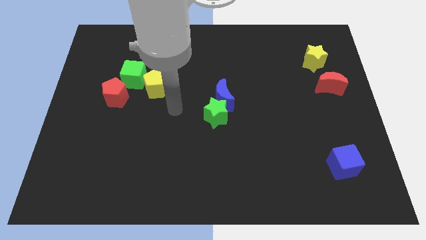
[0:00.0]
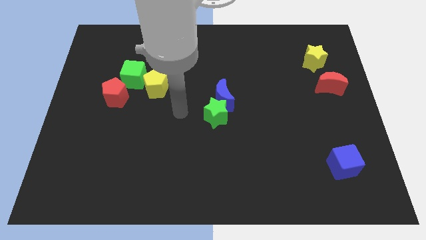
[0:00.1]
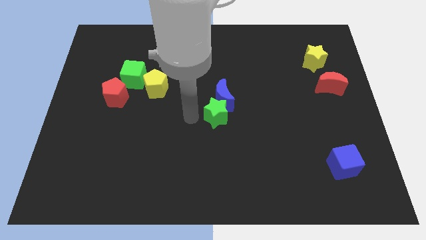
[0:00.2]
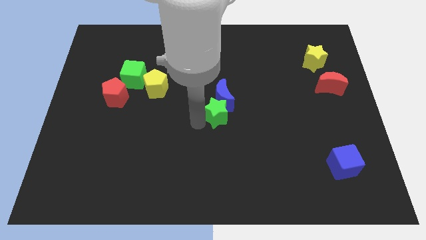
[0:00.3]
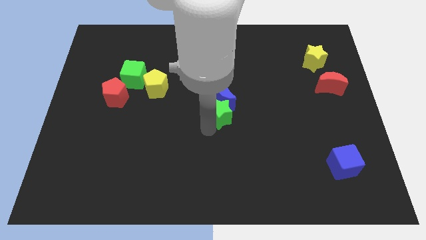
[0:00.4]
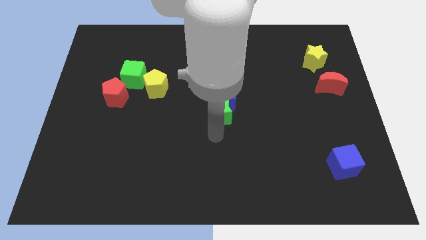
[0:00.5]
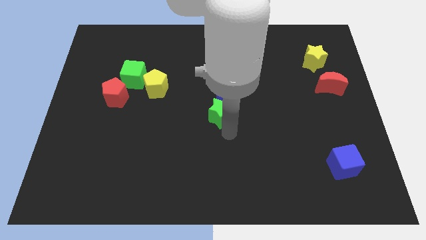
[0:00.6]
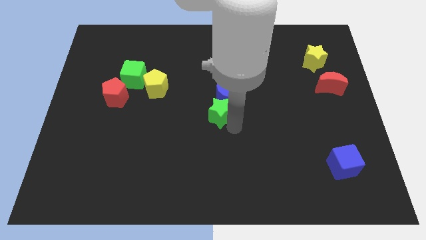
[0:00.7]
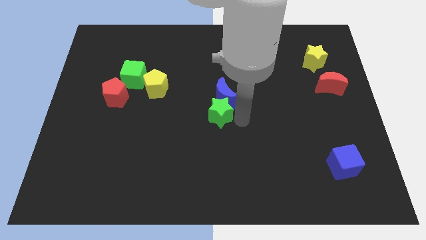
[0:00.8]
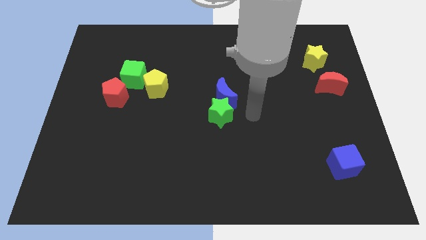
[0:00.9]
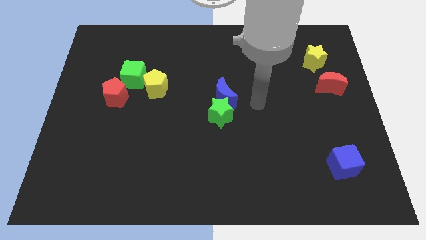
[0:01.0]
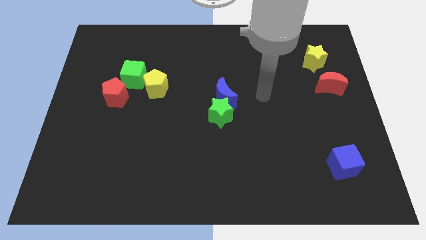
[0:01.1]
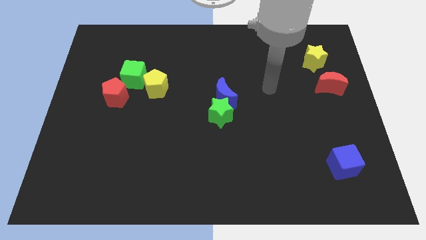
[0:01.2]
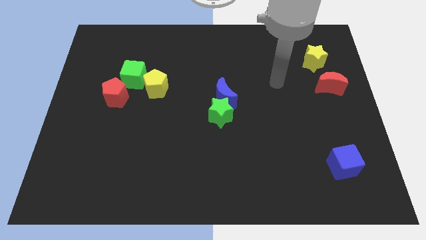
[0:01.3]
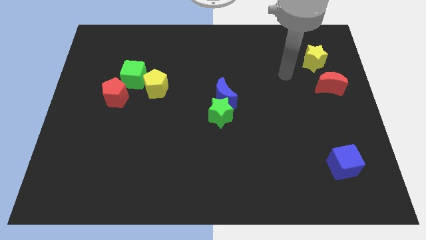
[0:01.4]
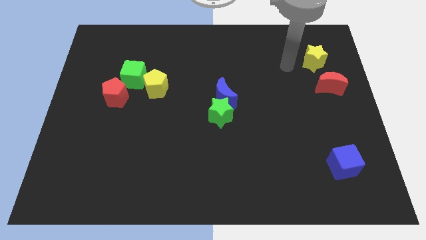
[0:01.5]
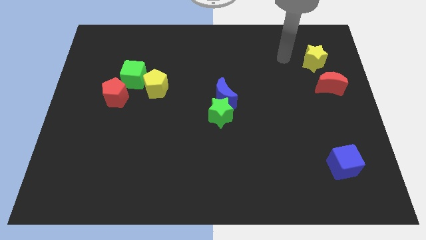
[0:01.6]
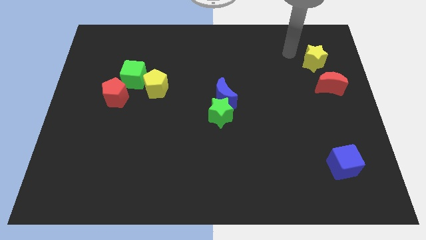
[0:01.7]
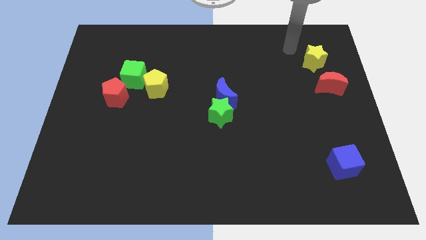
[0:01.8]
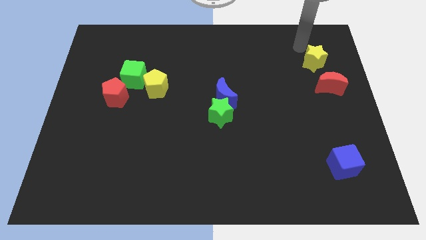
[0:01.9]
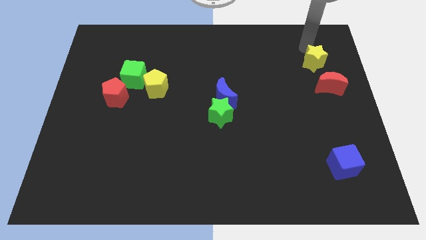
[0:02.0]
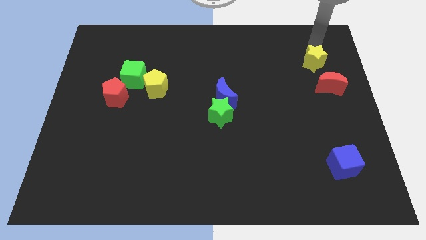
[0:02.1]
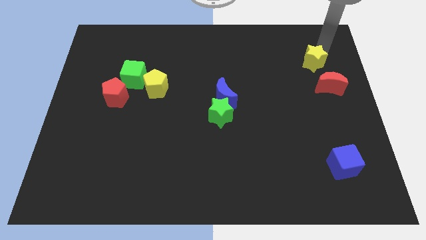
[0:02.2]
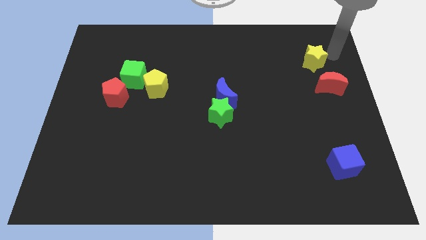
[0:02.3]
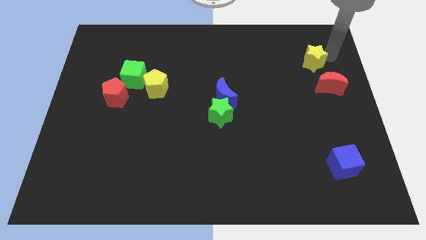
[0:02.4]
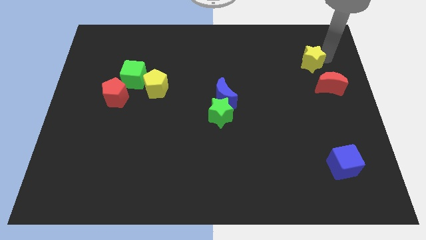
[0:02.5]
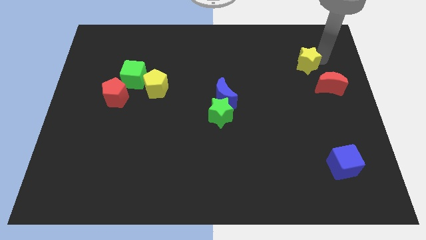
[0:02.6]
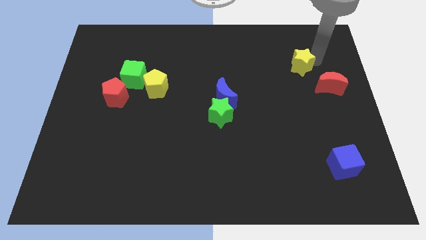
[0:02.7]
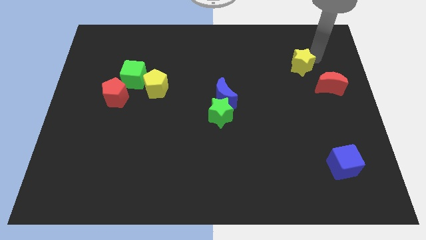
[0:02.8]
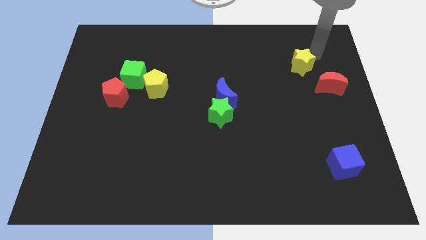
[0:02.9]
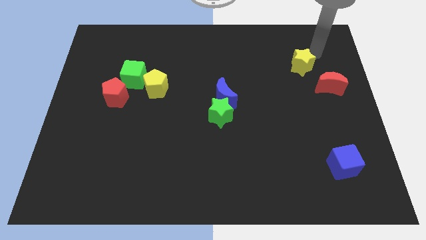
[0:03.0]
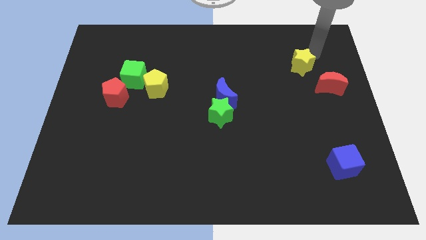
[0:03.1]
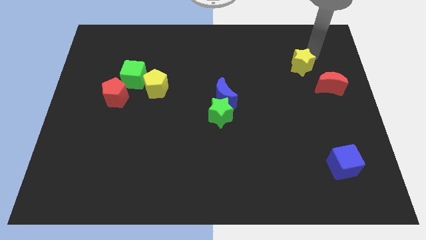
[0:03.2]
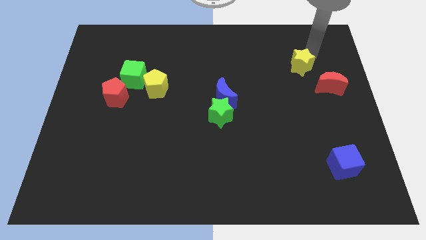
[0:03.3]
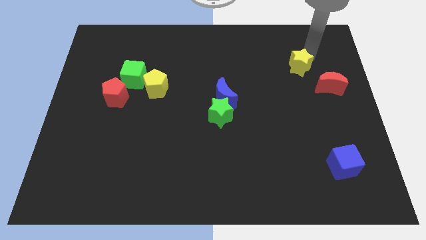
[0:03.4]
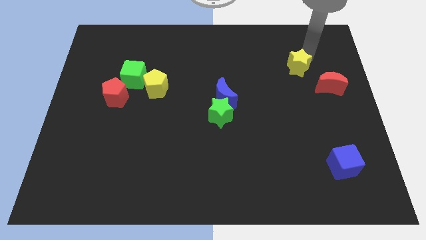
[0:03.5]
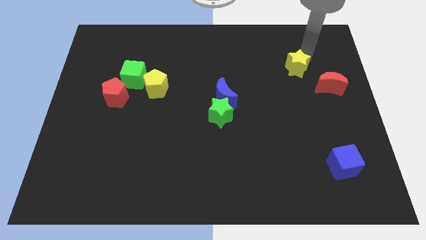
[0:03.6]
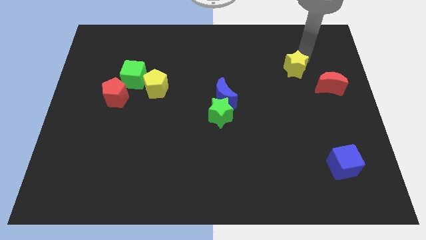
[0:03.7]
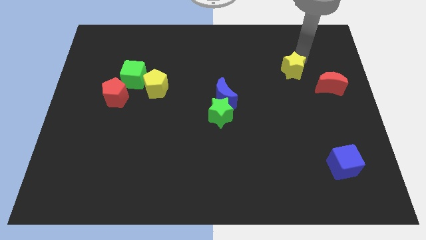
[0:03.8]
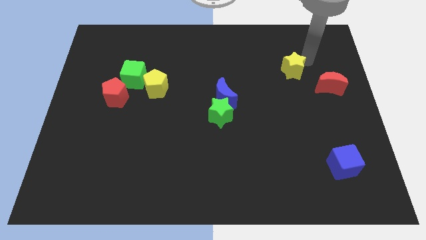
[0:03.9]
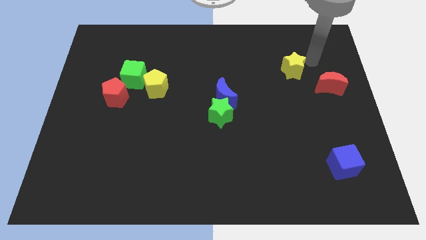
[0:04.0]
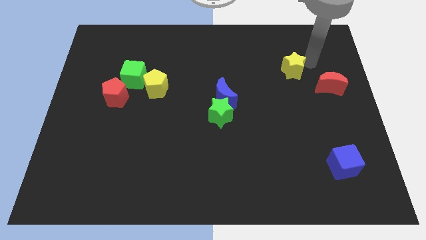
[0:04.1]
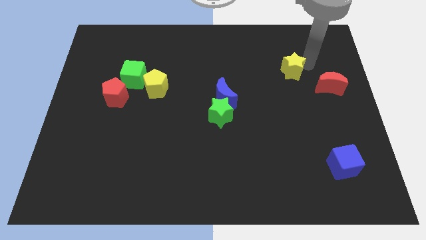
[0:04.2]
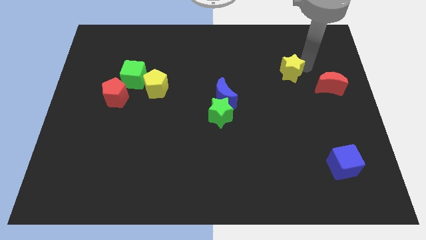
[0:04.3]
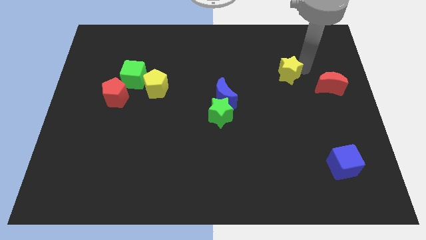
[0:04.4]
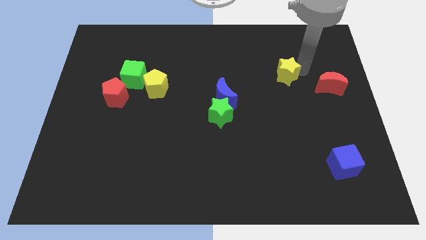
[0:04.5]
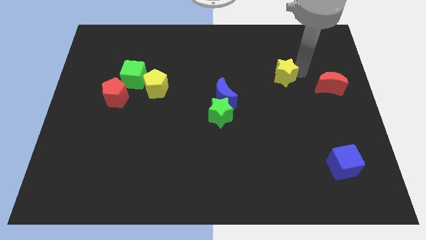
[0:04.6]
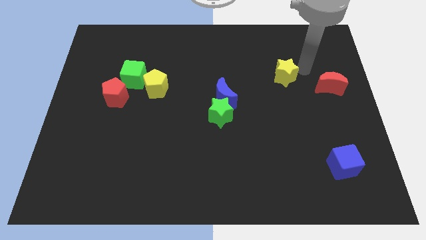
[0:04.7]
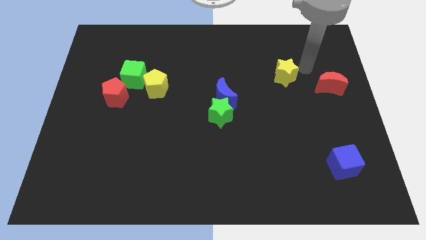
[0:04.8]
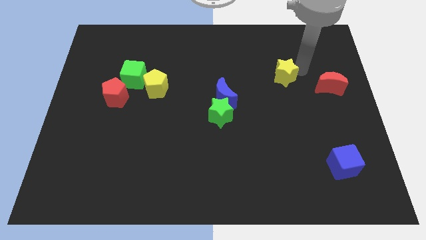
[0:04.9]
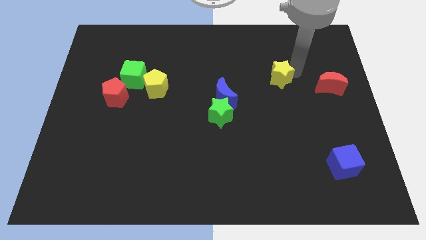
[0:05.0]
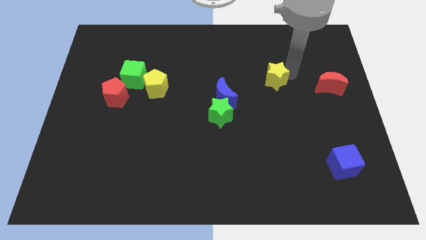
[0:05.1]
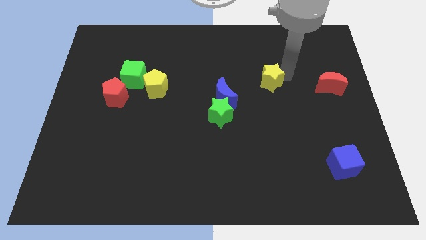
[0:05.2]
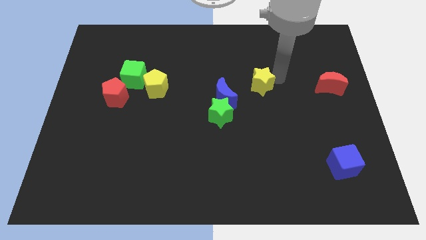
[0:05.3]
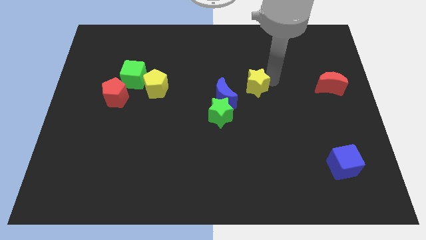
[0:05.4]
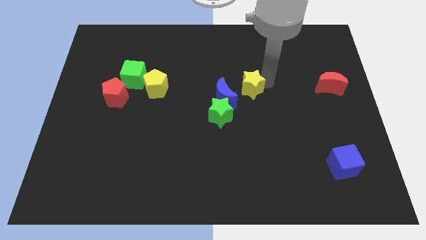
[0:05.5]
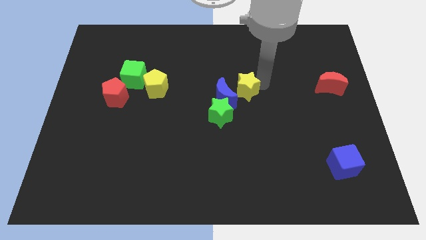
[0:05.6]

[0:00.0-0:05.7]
put the yellow star towards the blue moon

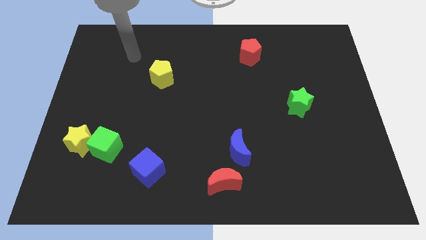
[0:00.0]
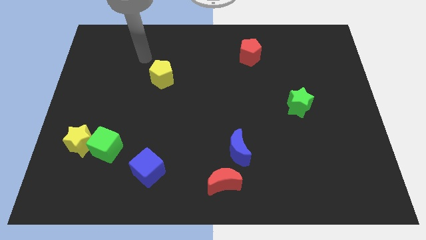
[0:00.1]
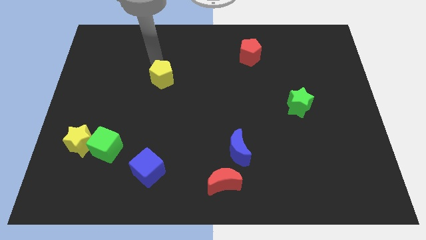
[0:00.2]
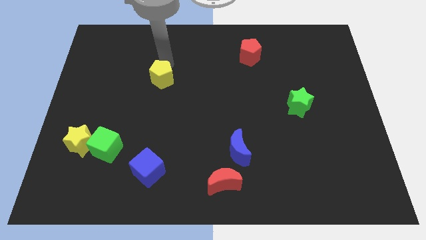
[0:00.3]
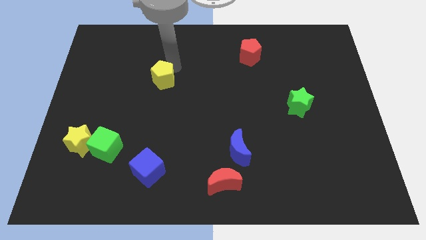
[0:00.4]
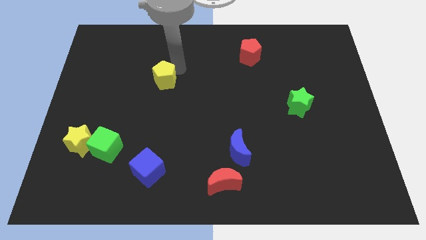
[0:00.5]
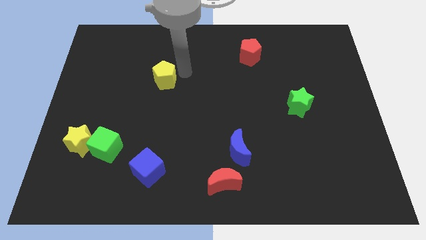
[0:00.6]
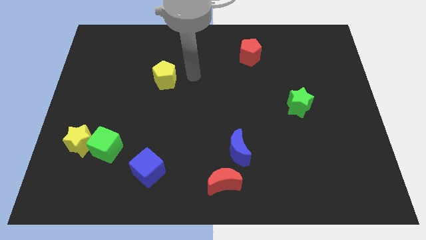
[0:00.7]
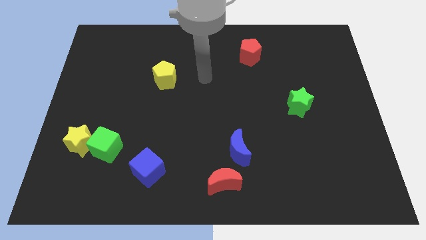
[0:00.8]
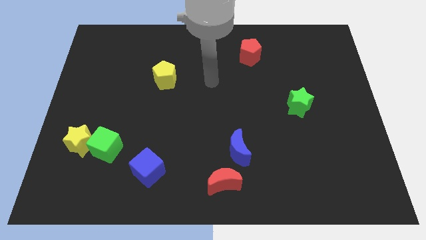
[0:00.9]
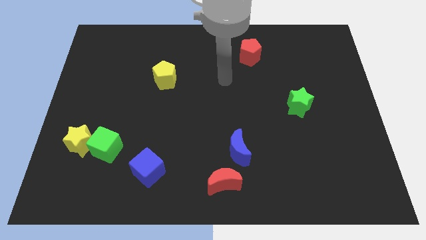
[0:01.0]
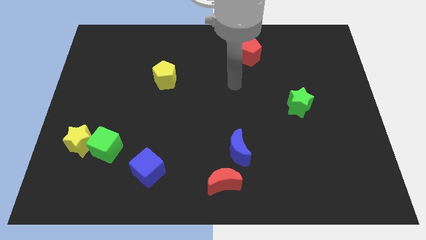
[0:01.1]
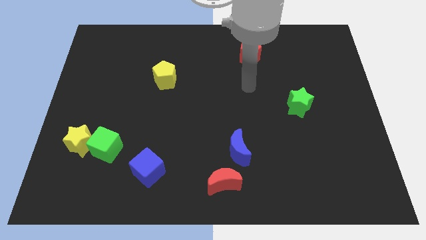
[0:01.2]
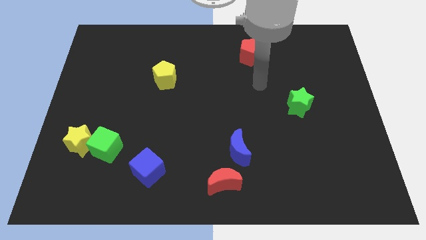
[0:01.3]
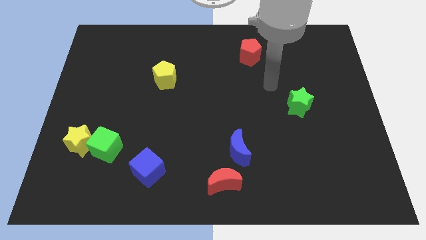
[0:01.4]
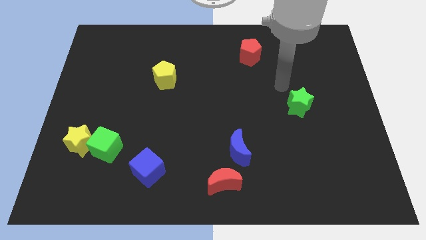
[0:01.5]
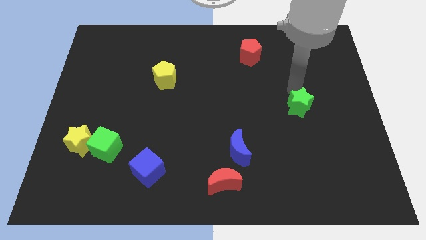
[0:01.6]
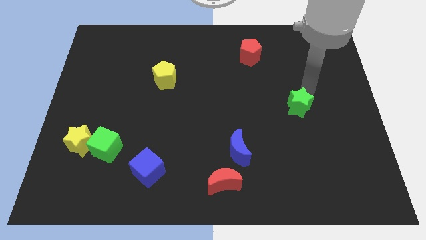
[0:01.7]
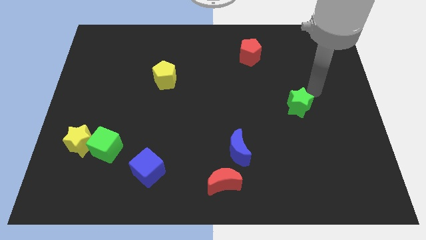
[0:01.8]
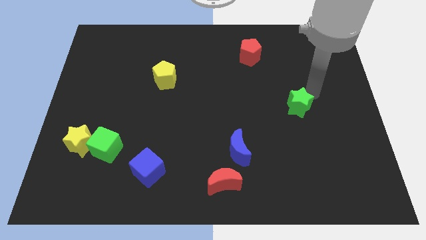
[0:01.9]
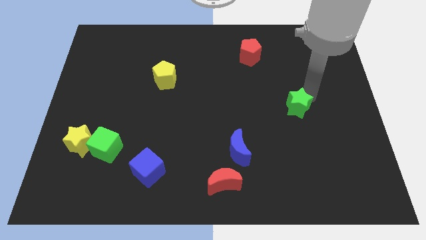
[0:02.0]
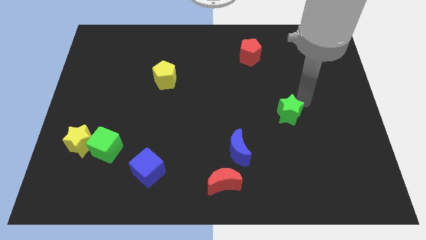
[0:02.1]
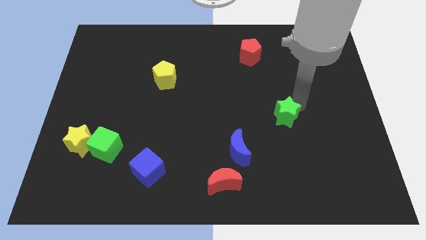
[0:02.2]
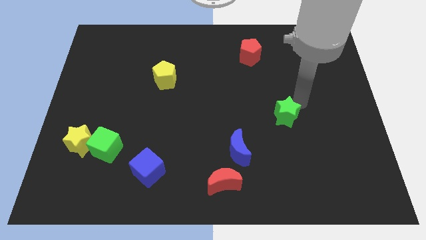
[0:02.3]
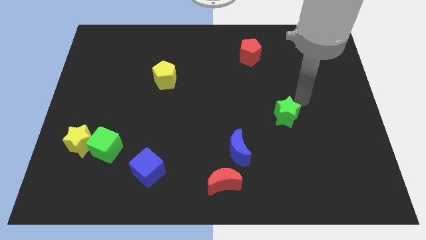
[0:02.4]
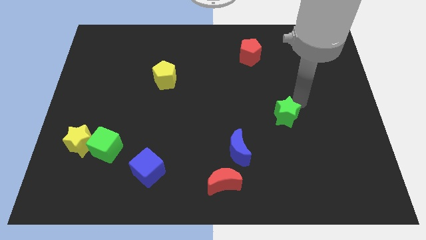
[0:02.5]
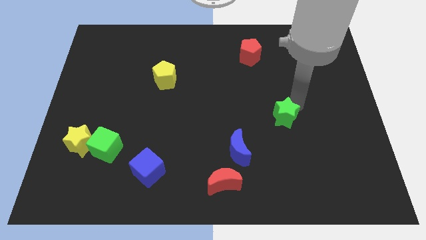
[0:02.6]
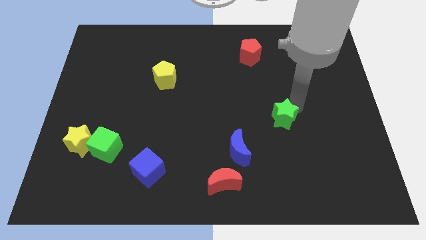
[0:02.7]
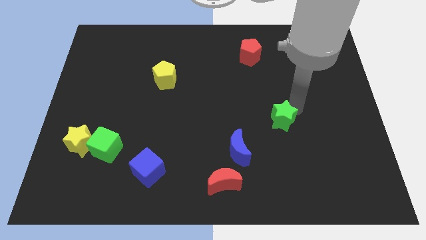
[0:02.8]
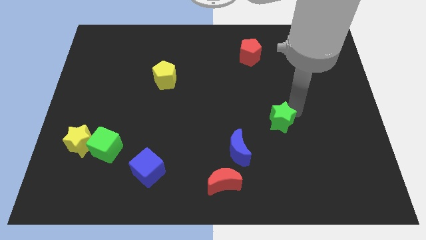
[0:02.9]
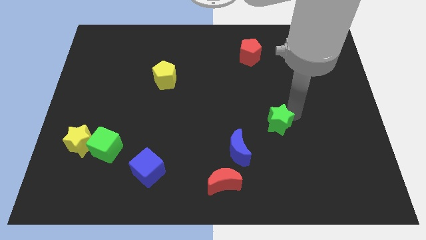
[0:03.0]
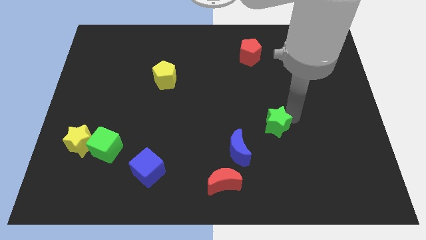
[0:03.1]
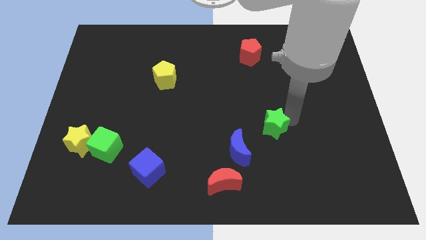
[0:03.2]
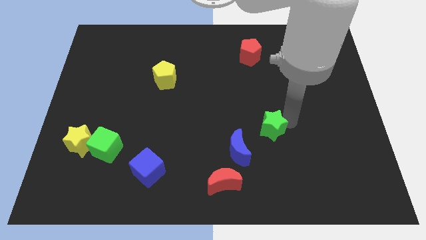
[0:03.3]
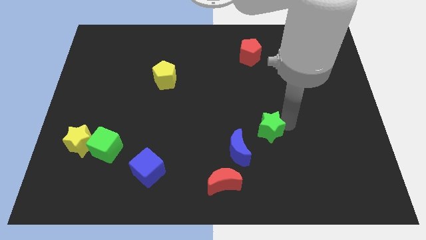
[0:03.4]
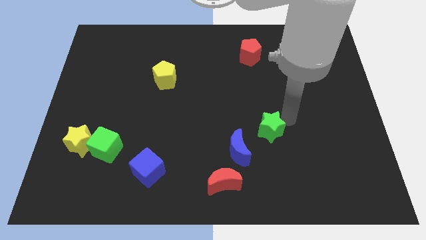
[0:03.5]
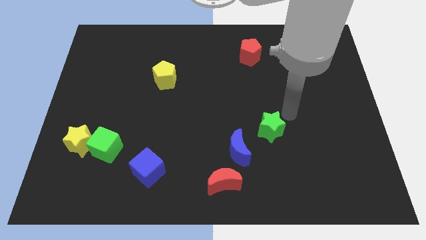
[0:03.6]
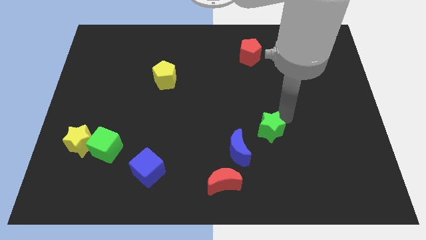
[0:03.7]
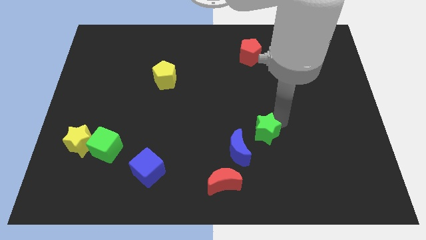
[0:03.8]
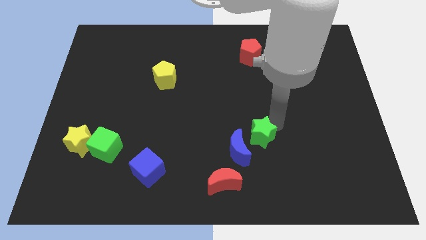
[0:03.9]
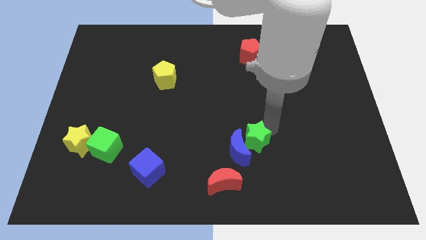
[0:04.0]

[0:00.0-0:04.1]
push the green star next to the blue moon
